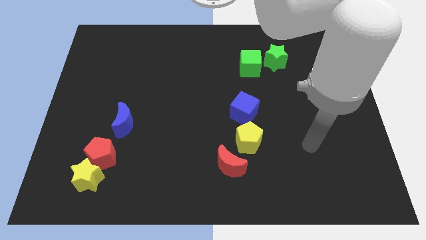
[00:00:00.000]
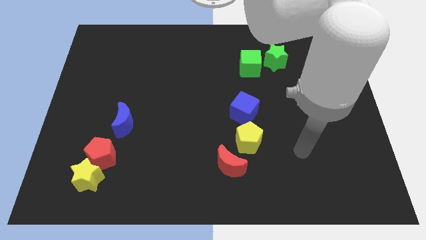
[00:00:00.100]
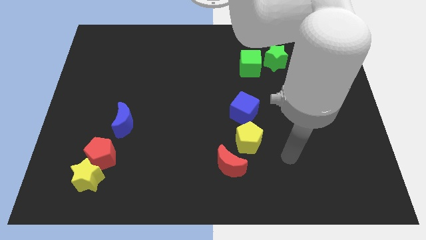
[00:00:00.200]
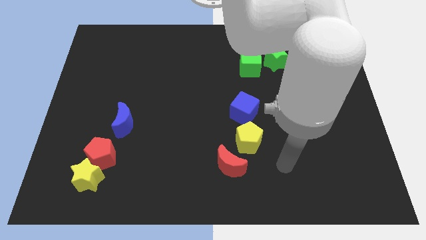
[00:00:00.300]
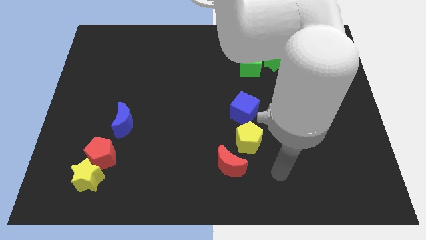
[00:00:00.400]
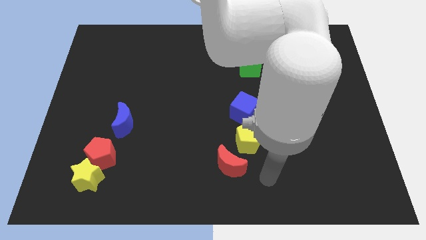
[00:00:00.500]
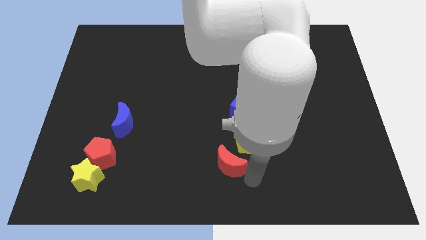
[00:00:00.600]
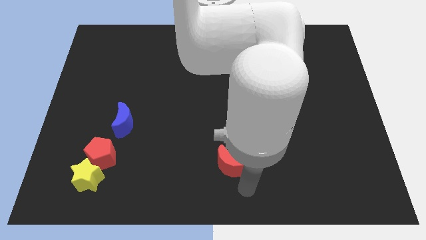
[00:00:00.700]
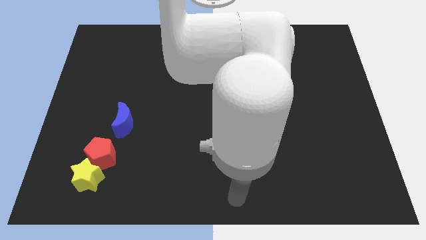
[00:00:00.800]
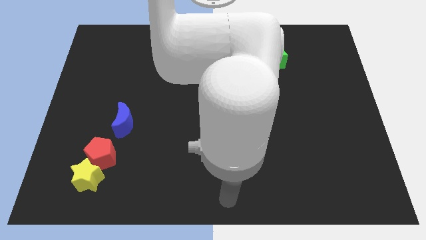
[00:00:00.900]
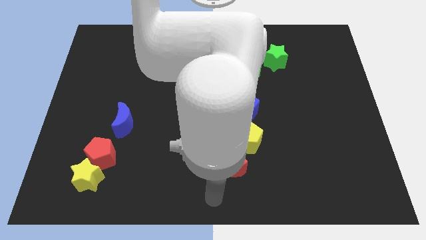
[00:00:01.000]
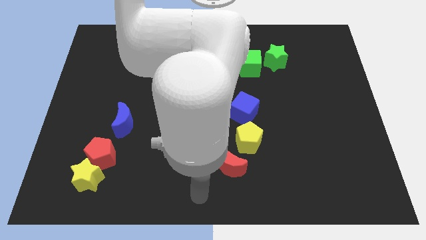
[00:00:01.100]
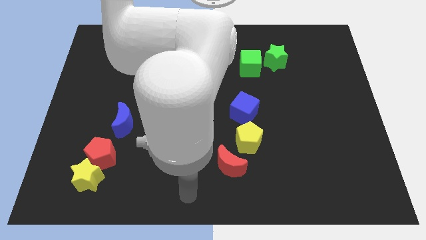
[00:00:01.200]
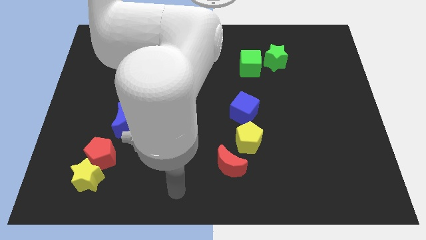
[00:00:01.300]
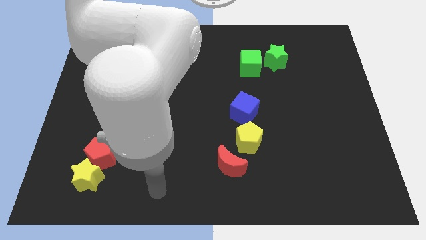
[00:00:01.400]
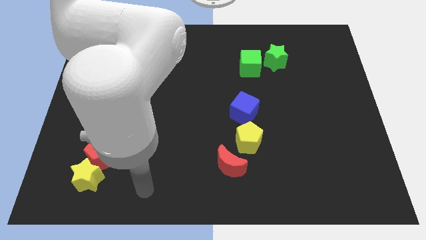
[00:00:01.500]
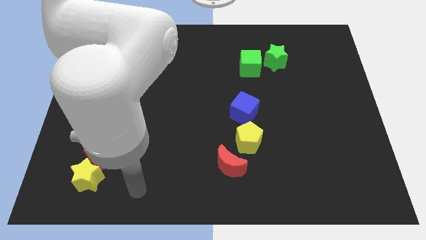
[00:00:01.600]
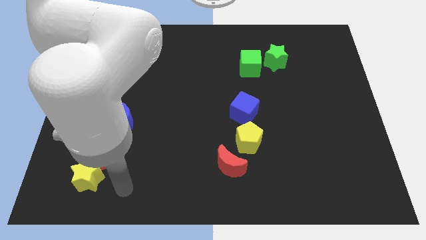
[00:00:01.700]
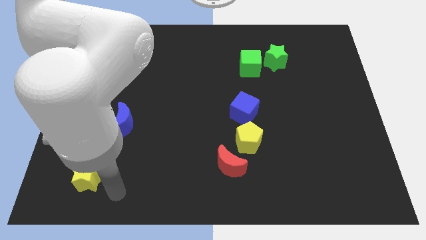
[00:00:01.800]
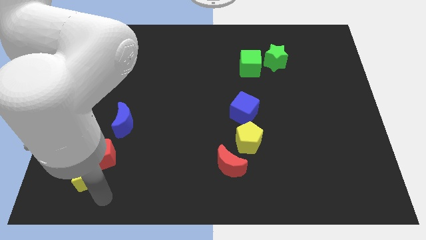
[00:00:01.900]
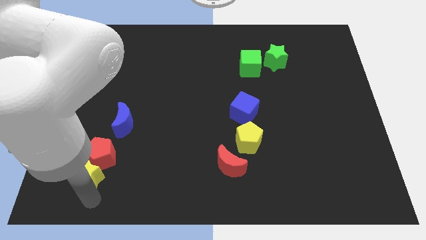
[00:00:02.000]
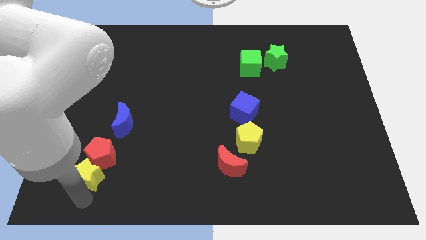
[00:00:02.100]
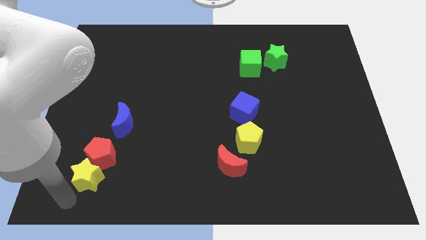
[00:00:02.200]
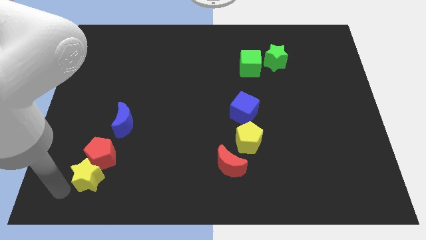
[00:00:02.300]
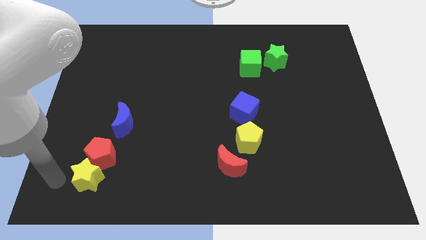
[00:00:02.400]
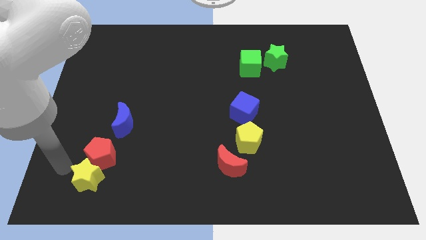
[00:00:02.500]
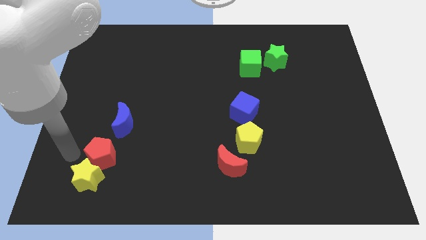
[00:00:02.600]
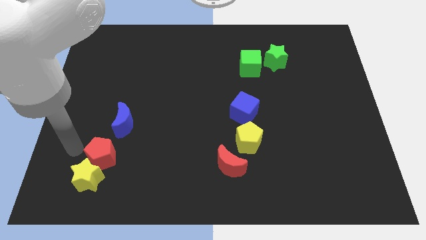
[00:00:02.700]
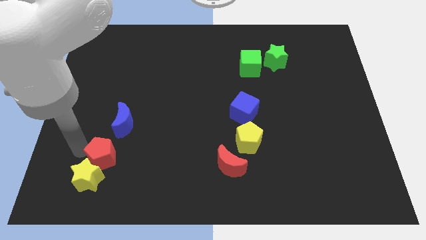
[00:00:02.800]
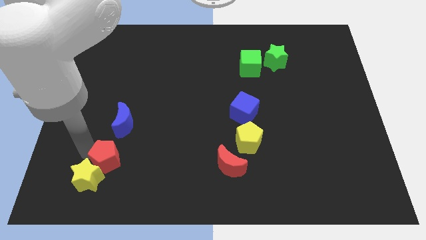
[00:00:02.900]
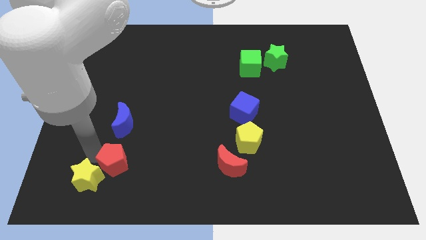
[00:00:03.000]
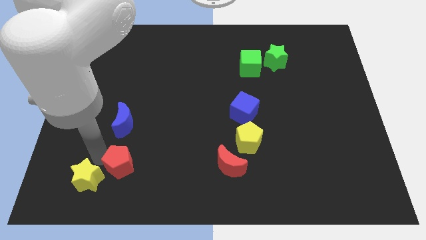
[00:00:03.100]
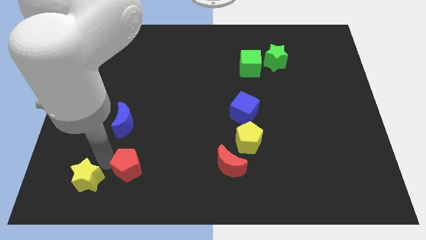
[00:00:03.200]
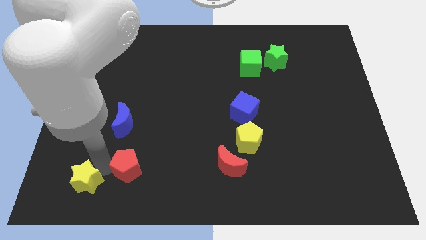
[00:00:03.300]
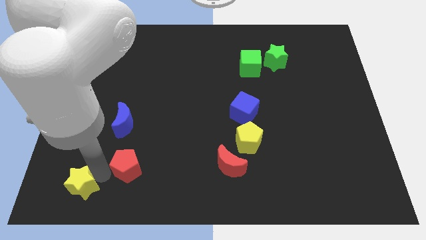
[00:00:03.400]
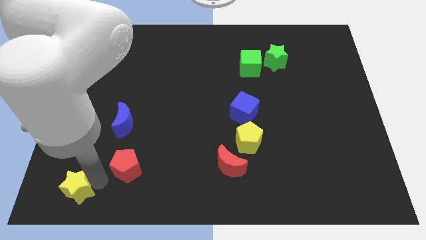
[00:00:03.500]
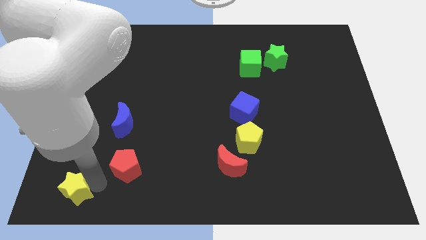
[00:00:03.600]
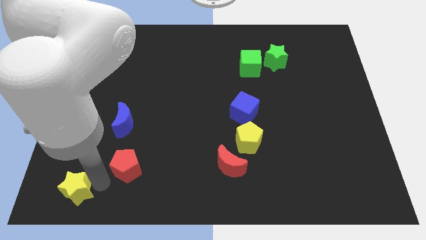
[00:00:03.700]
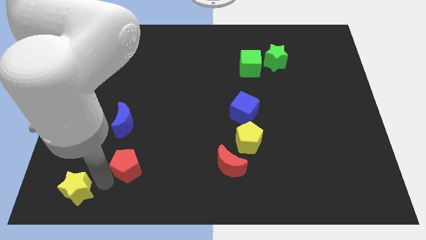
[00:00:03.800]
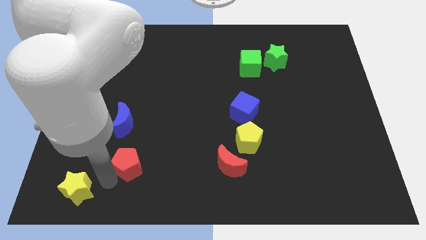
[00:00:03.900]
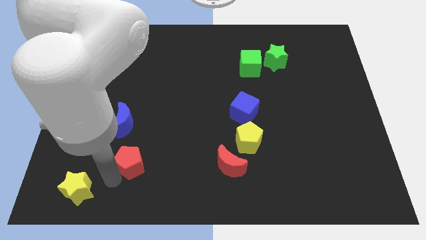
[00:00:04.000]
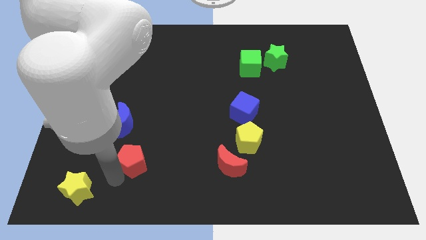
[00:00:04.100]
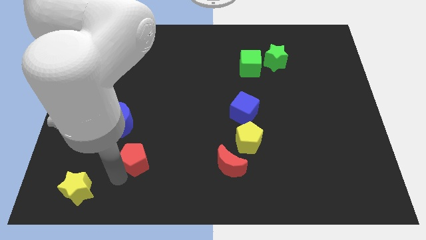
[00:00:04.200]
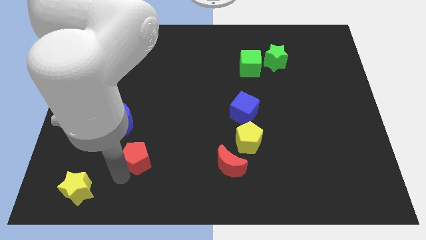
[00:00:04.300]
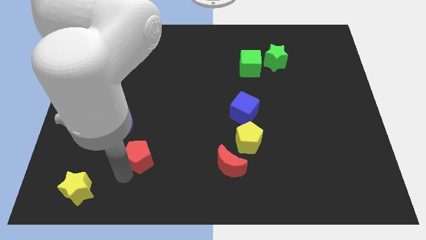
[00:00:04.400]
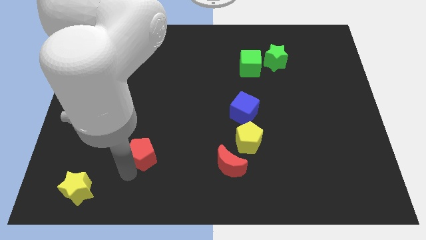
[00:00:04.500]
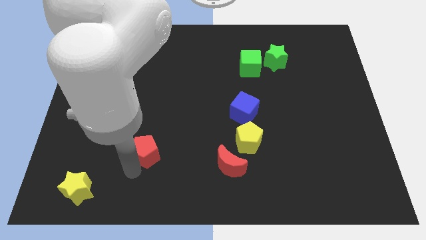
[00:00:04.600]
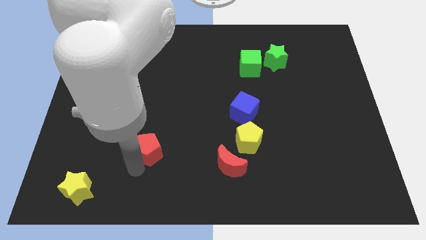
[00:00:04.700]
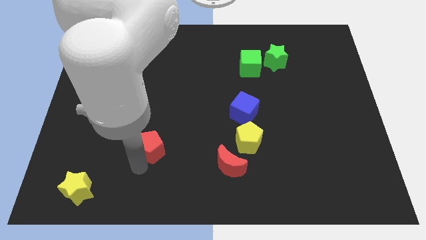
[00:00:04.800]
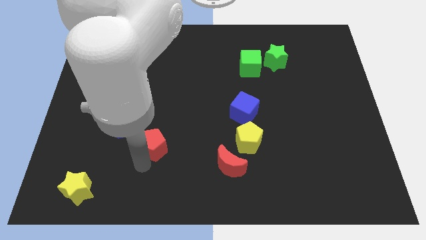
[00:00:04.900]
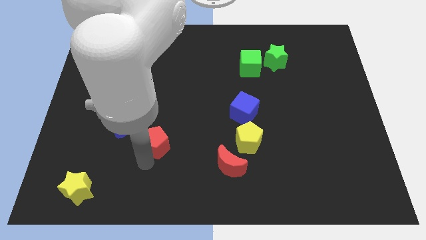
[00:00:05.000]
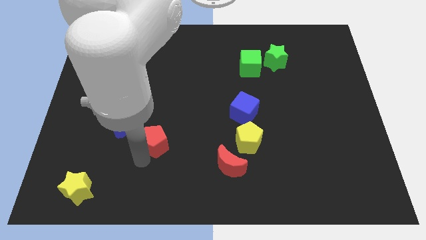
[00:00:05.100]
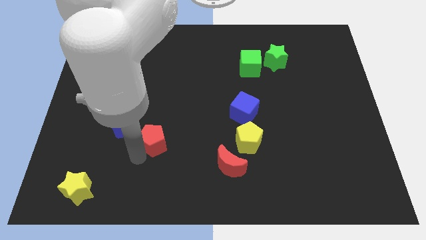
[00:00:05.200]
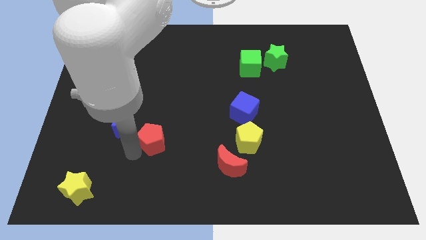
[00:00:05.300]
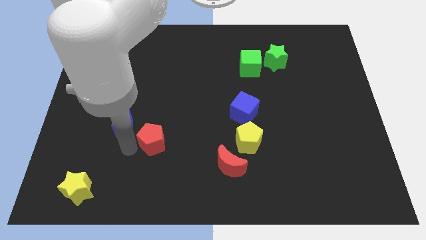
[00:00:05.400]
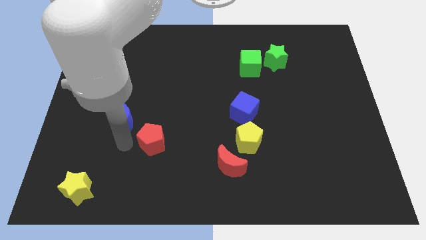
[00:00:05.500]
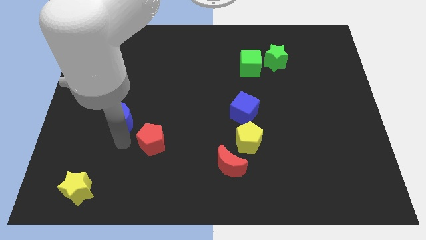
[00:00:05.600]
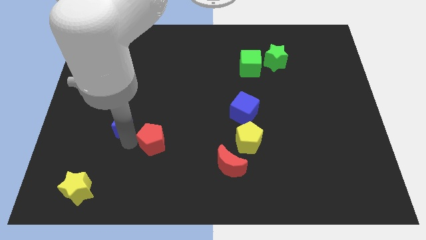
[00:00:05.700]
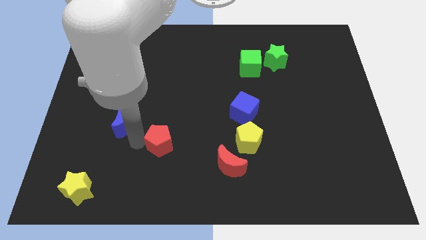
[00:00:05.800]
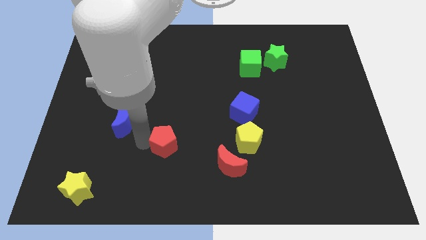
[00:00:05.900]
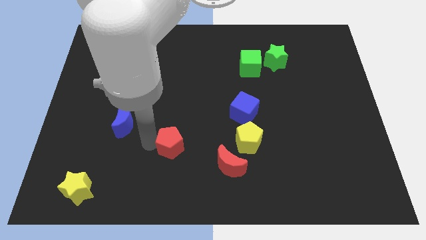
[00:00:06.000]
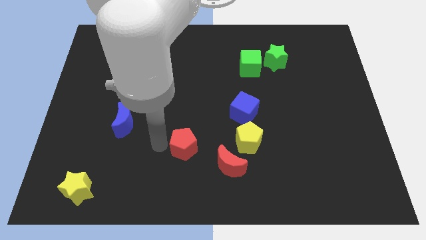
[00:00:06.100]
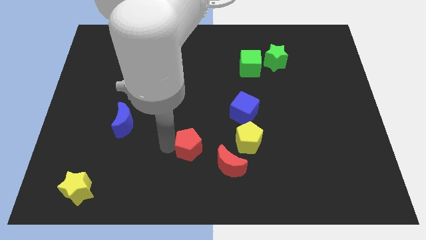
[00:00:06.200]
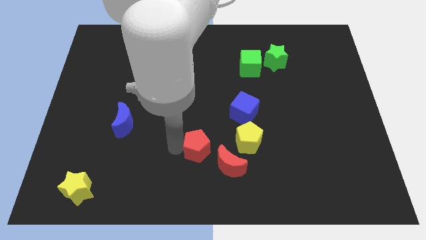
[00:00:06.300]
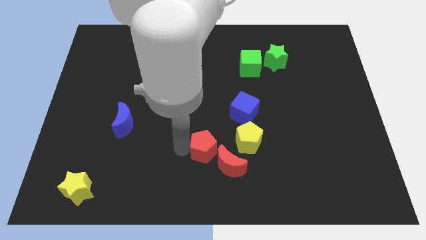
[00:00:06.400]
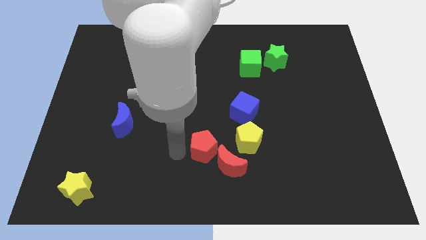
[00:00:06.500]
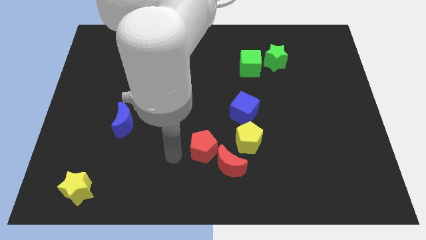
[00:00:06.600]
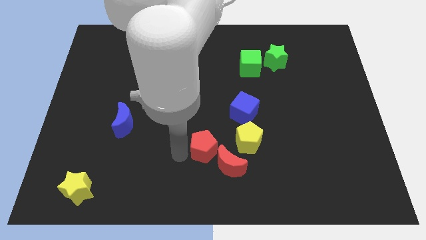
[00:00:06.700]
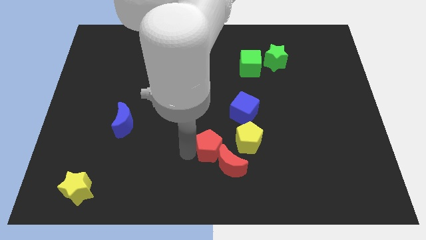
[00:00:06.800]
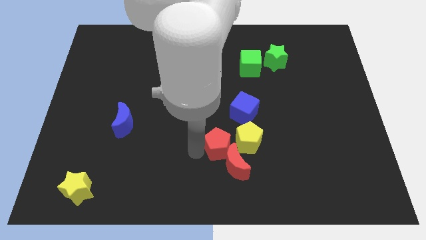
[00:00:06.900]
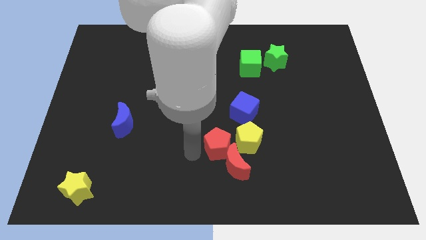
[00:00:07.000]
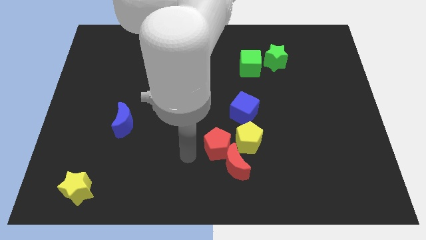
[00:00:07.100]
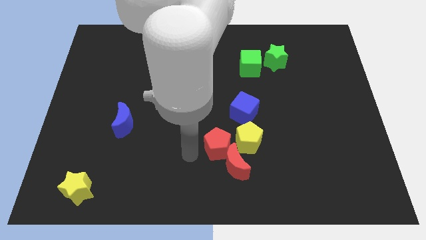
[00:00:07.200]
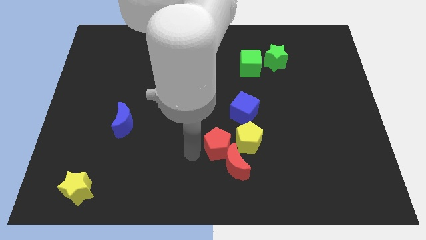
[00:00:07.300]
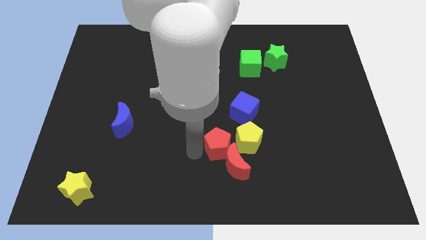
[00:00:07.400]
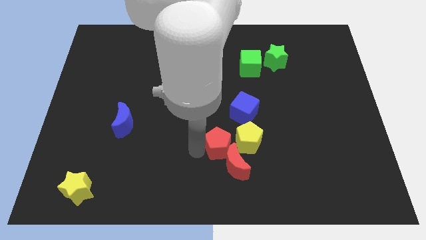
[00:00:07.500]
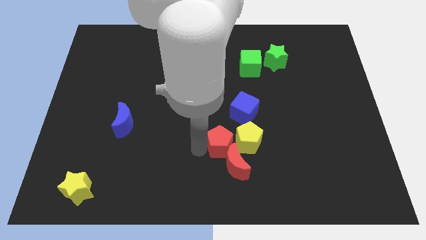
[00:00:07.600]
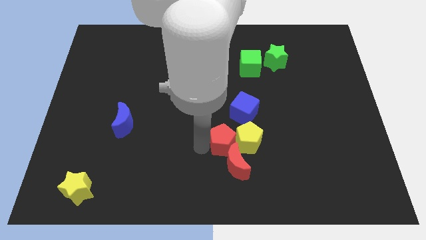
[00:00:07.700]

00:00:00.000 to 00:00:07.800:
move the red pentagon towards the yellow pentagon
